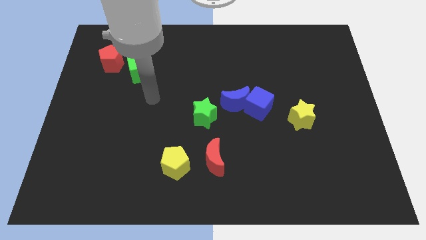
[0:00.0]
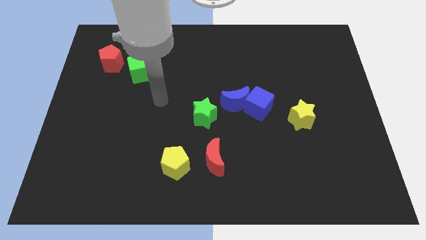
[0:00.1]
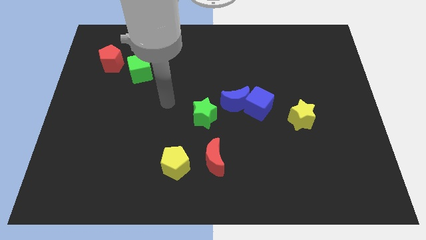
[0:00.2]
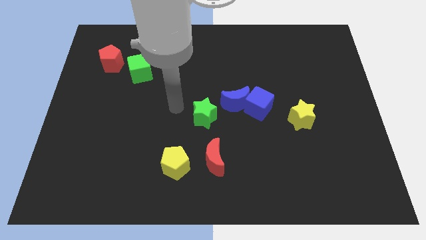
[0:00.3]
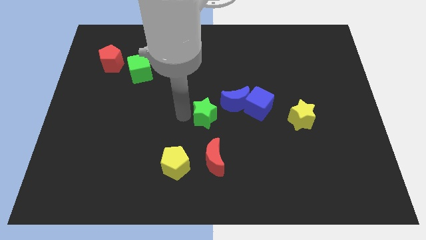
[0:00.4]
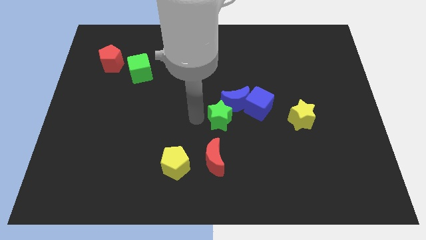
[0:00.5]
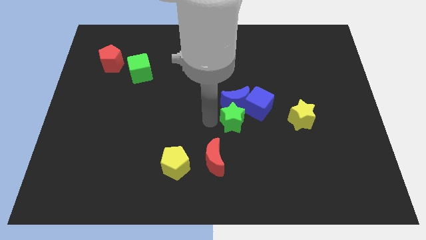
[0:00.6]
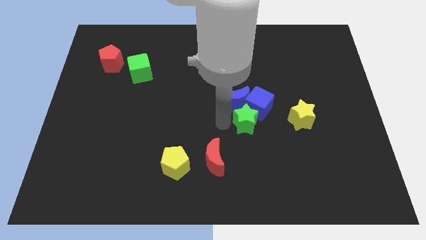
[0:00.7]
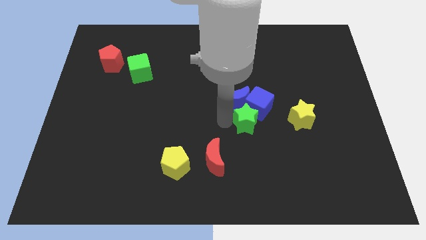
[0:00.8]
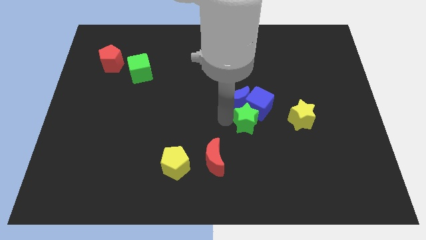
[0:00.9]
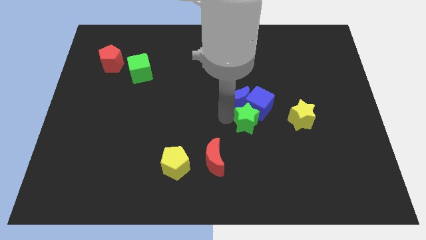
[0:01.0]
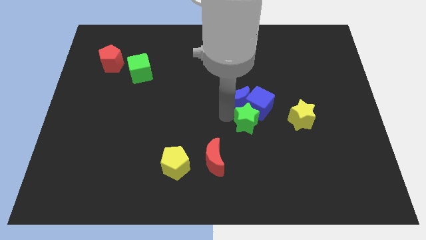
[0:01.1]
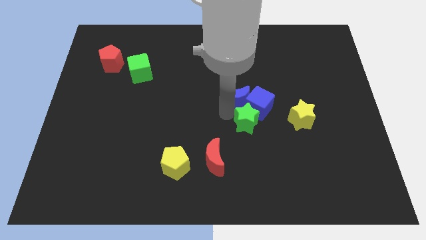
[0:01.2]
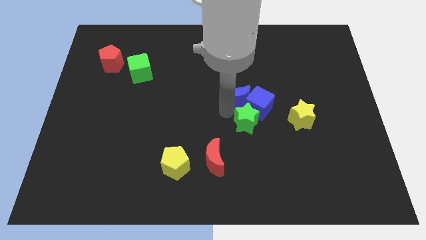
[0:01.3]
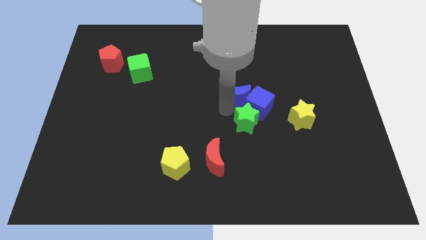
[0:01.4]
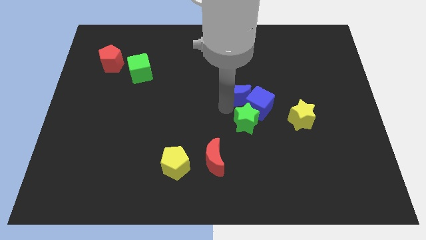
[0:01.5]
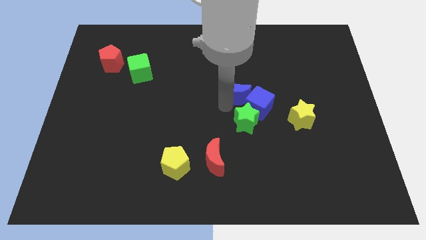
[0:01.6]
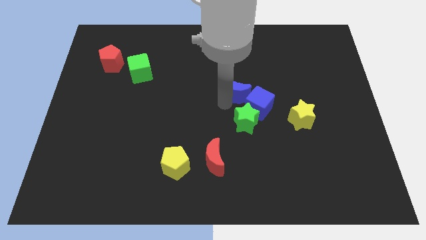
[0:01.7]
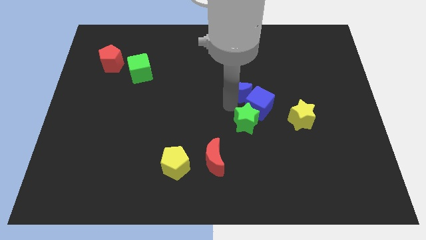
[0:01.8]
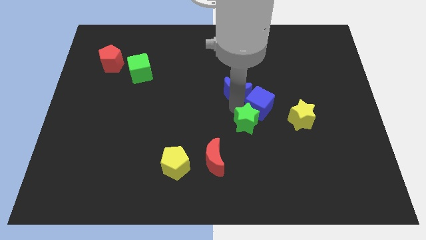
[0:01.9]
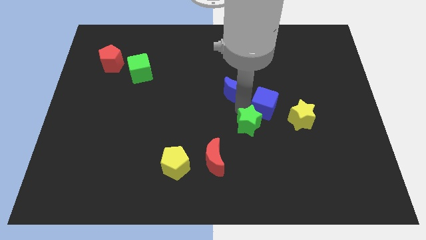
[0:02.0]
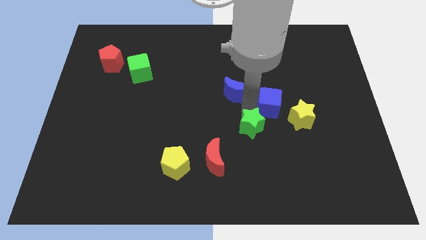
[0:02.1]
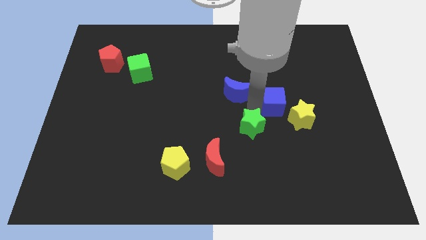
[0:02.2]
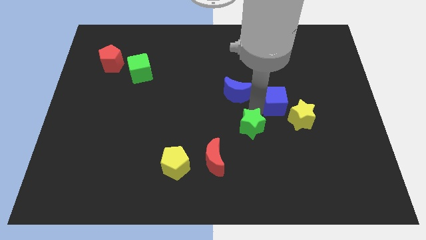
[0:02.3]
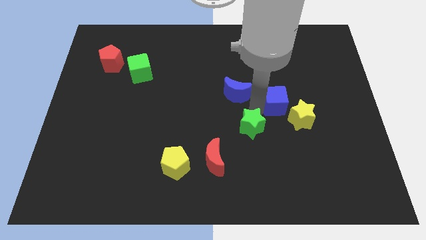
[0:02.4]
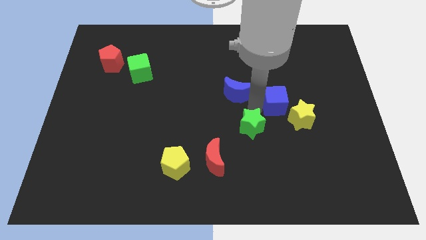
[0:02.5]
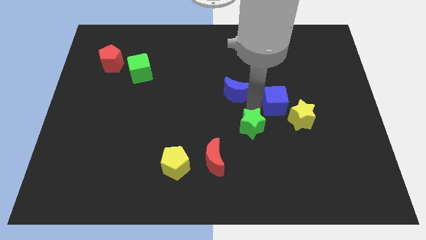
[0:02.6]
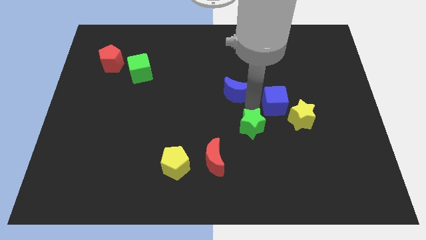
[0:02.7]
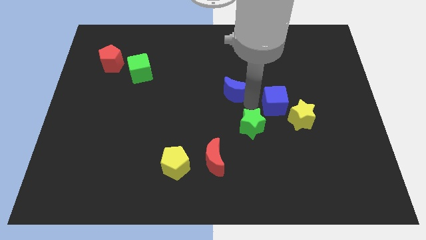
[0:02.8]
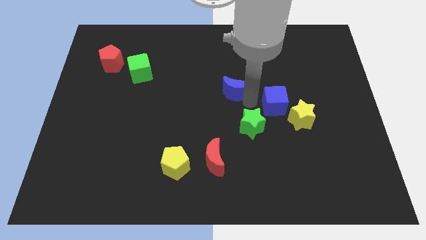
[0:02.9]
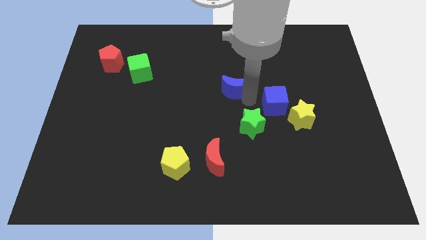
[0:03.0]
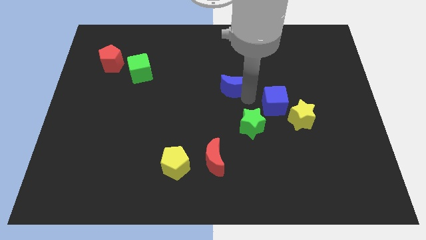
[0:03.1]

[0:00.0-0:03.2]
pull the blue moon apart from the blue cube and green star

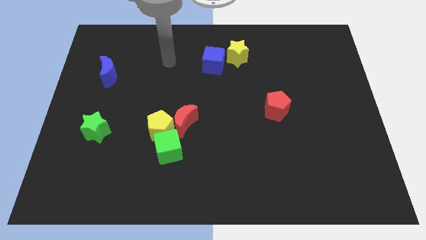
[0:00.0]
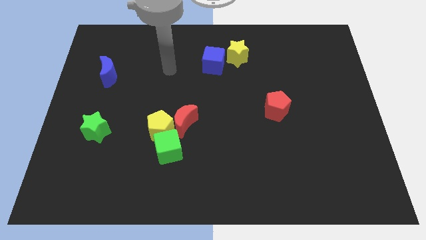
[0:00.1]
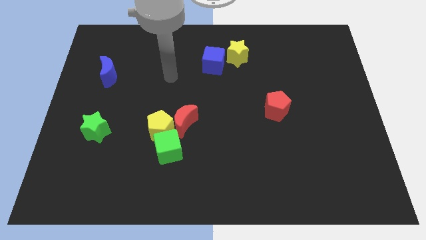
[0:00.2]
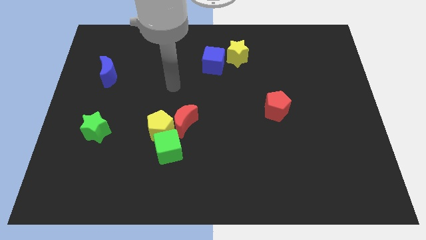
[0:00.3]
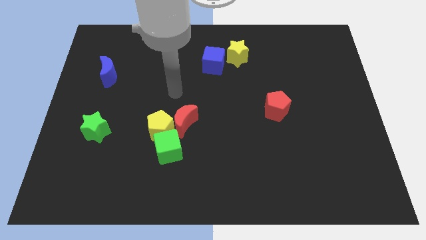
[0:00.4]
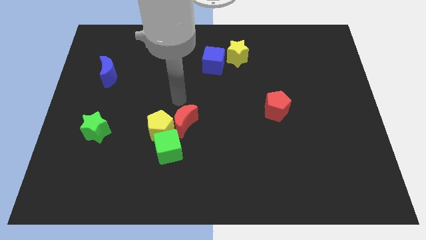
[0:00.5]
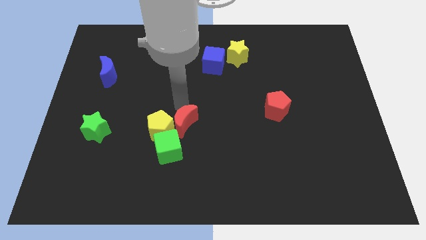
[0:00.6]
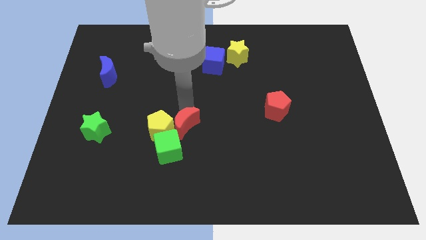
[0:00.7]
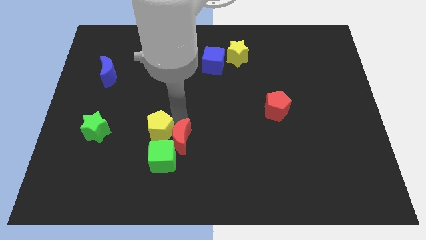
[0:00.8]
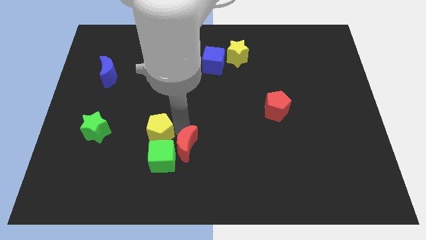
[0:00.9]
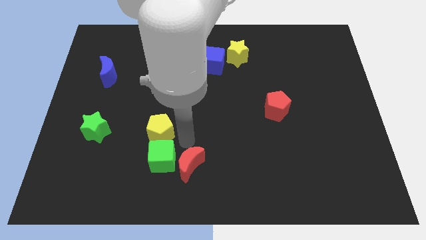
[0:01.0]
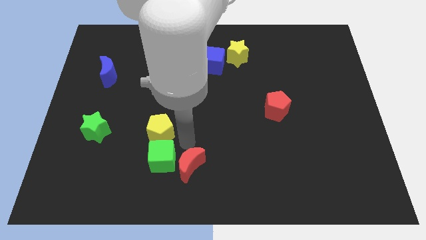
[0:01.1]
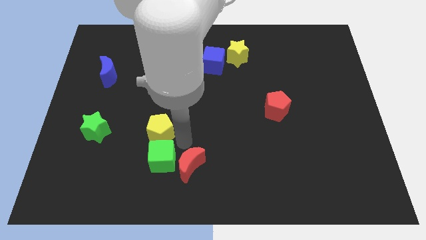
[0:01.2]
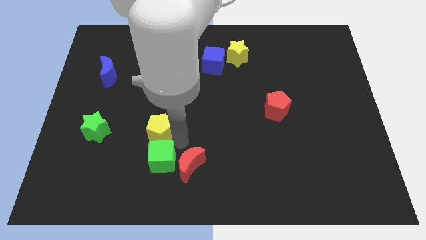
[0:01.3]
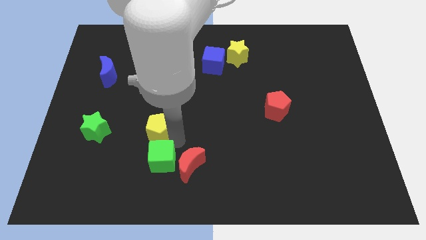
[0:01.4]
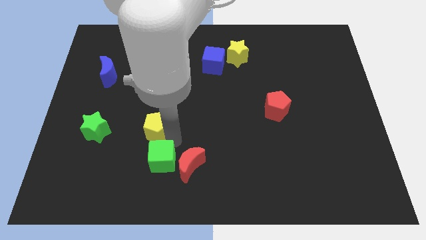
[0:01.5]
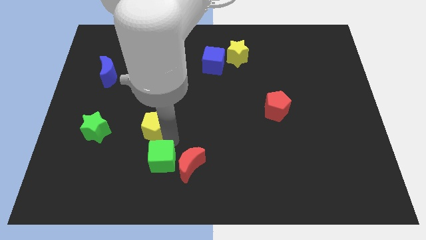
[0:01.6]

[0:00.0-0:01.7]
pull the yellow pentagon apart from the red moon and green cube

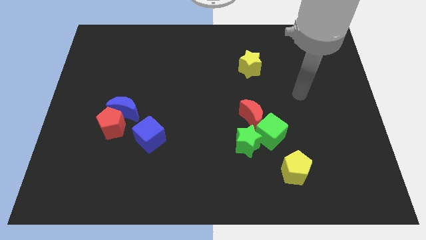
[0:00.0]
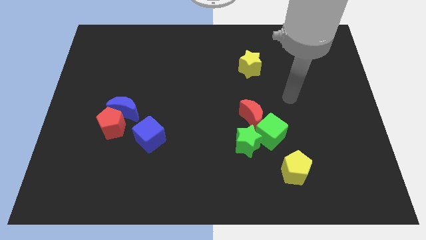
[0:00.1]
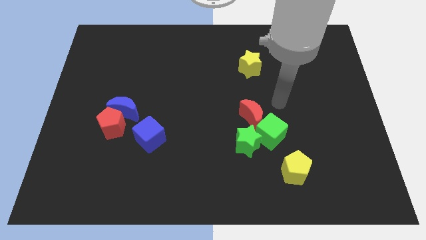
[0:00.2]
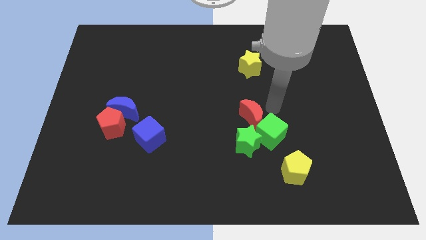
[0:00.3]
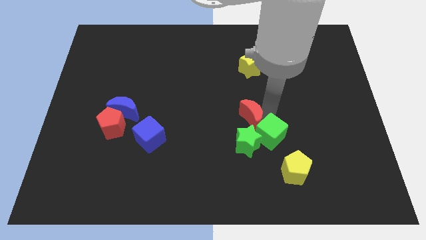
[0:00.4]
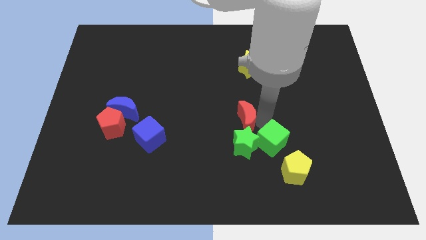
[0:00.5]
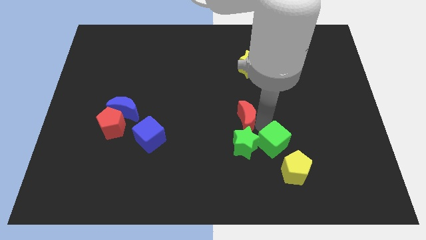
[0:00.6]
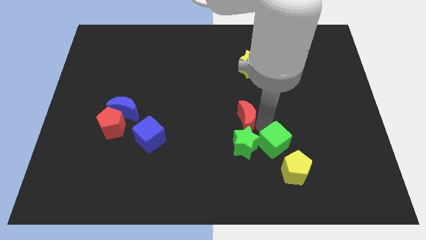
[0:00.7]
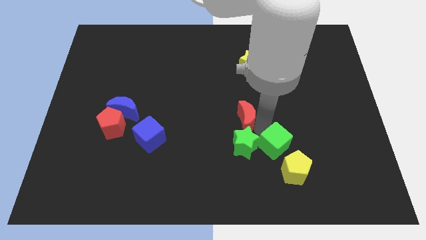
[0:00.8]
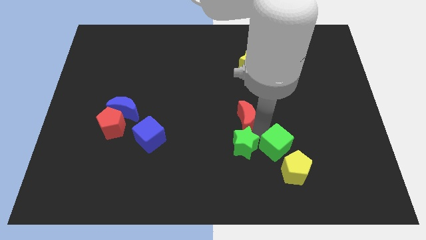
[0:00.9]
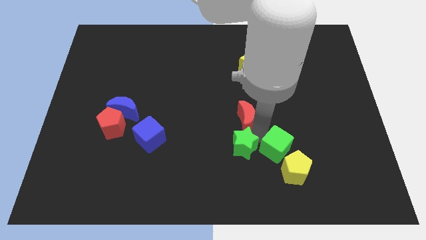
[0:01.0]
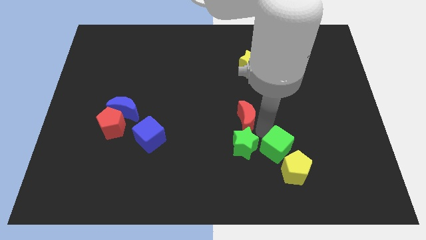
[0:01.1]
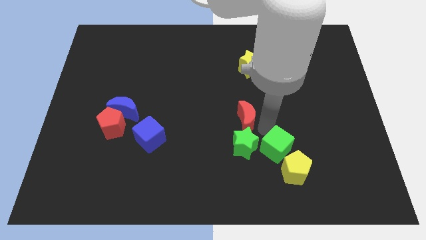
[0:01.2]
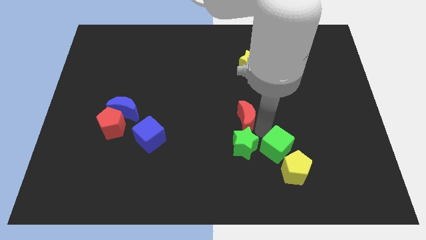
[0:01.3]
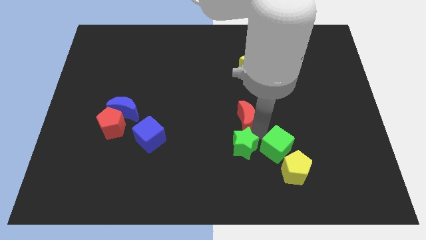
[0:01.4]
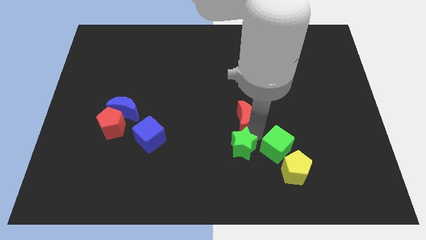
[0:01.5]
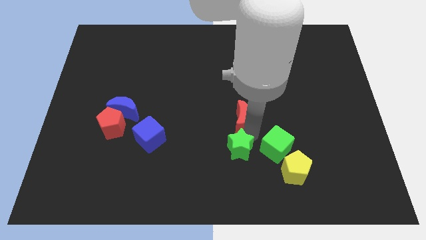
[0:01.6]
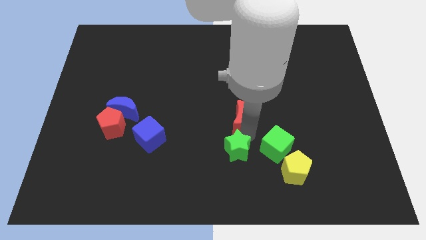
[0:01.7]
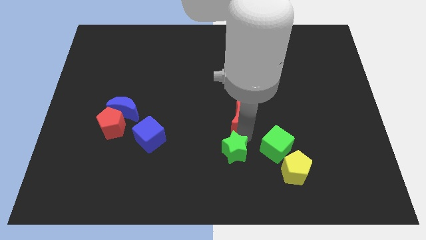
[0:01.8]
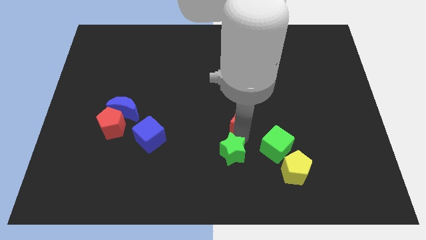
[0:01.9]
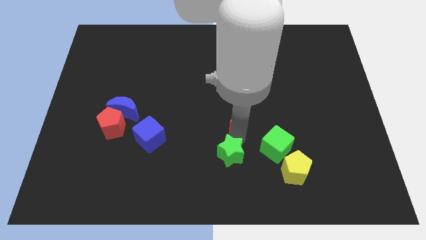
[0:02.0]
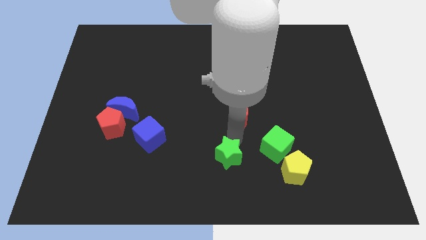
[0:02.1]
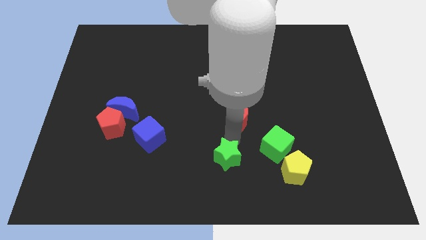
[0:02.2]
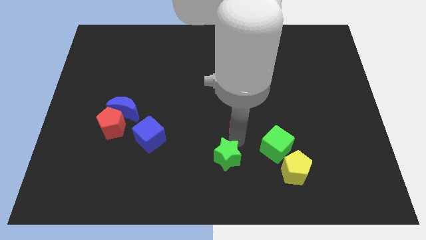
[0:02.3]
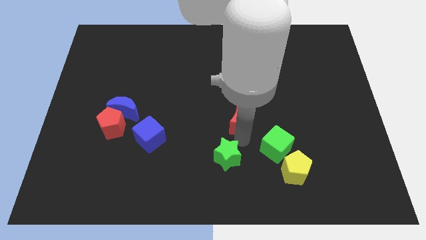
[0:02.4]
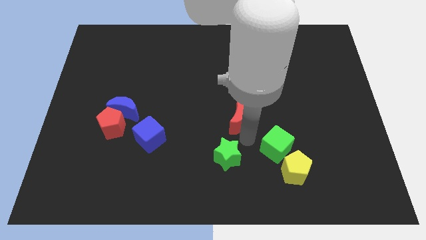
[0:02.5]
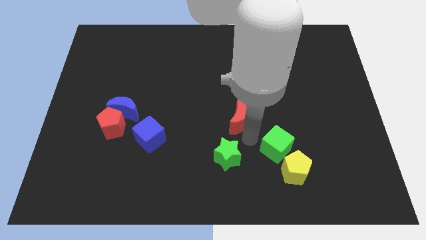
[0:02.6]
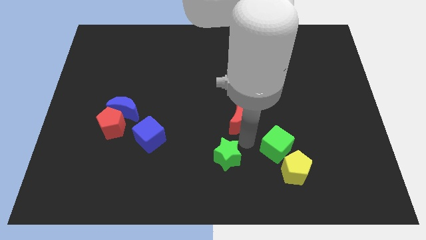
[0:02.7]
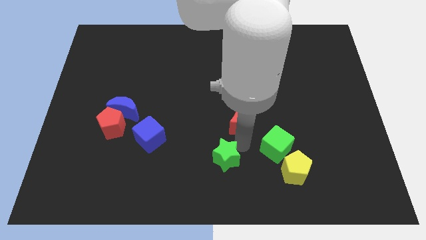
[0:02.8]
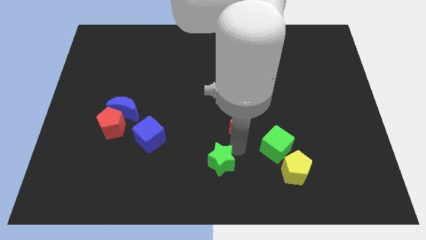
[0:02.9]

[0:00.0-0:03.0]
pull the green star apart from the green cube and red moon

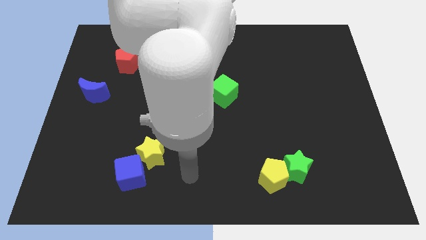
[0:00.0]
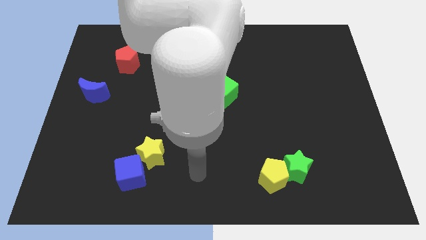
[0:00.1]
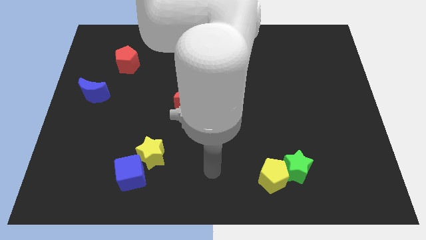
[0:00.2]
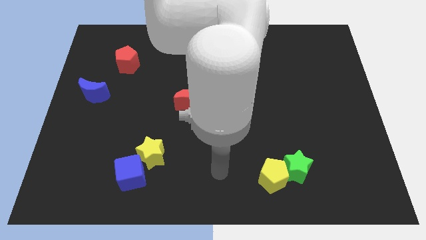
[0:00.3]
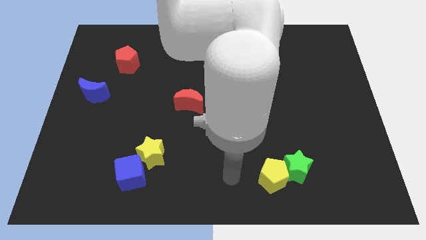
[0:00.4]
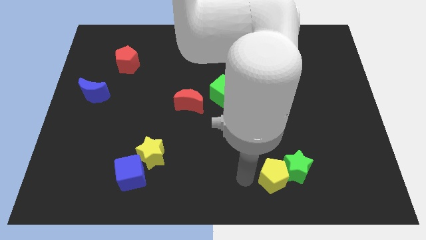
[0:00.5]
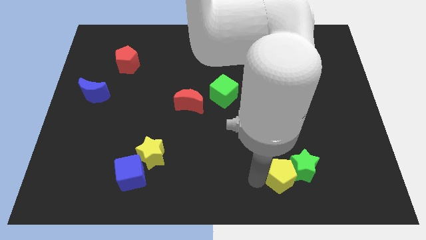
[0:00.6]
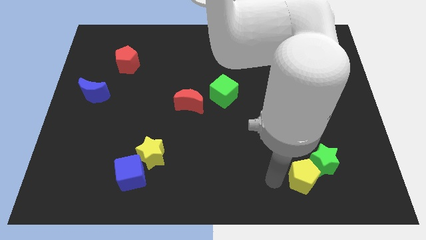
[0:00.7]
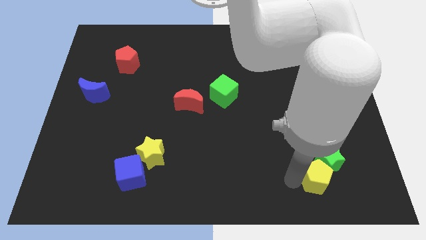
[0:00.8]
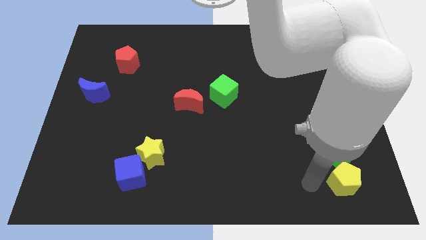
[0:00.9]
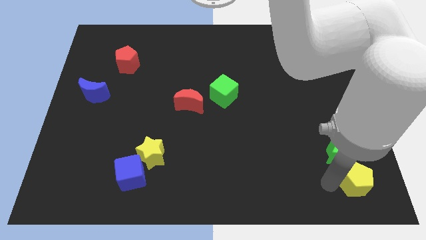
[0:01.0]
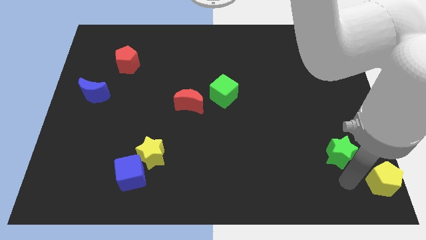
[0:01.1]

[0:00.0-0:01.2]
move the green star away from the yellow pentagon

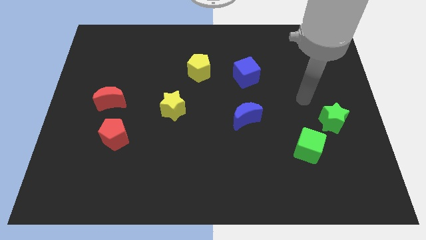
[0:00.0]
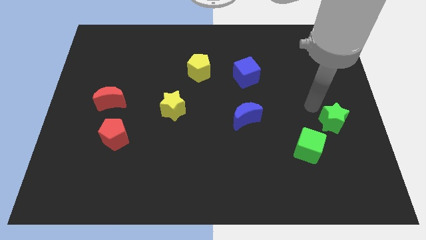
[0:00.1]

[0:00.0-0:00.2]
pull the green cube apart from the green star
